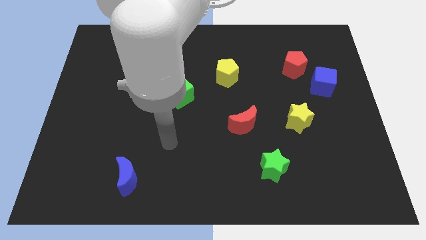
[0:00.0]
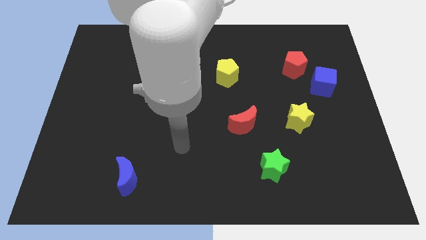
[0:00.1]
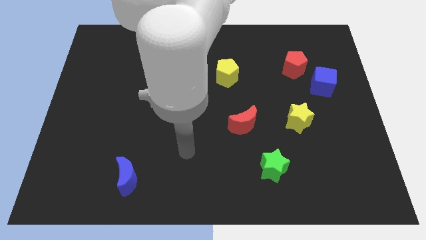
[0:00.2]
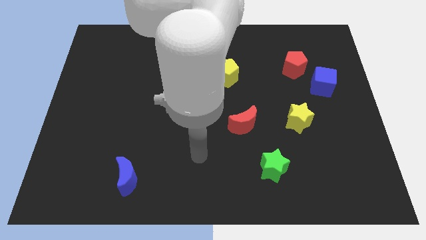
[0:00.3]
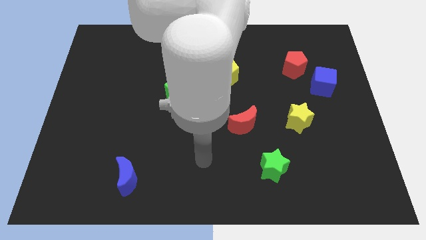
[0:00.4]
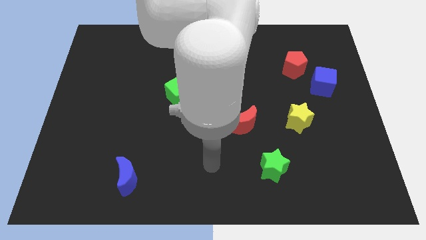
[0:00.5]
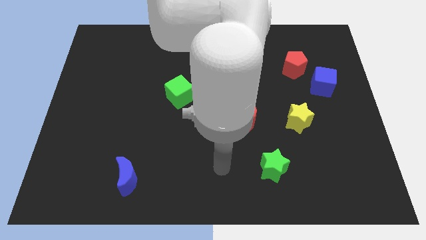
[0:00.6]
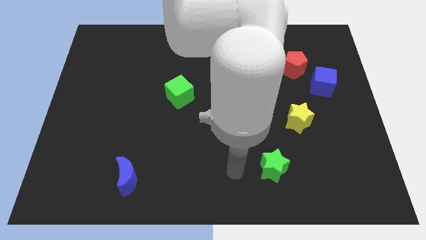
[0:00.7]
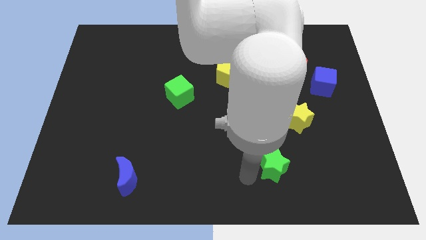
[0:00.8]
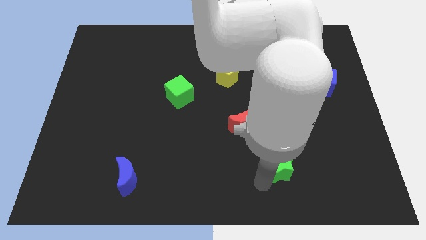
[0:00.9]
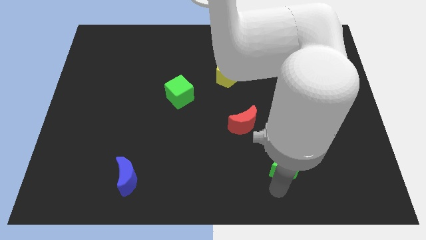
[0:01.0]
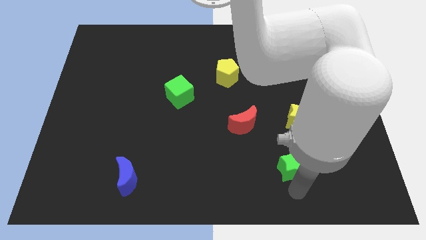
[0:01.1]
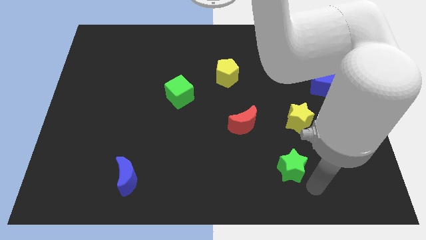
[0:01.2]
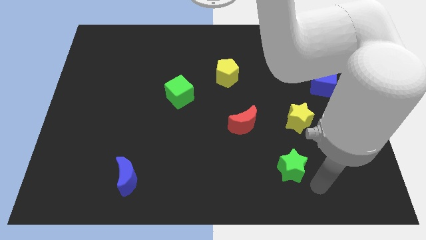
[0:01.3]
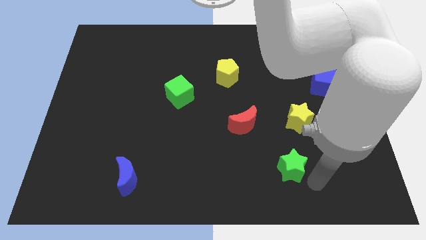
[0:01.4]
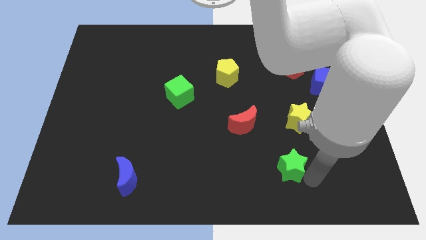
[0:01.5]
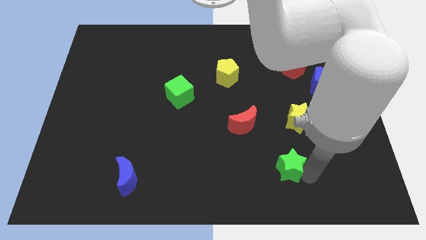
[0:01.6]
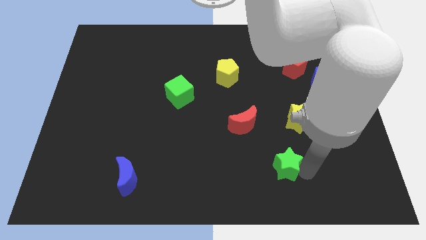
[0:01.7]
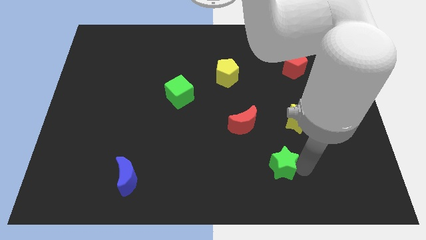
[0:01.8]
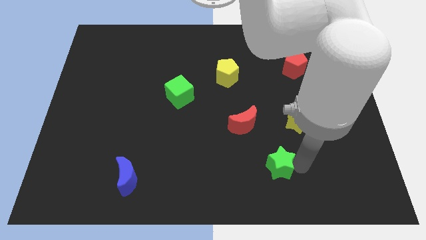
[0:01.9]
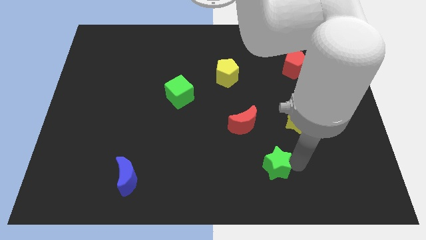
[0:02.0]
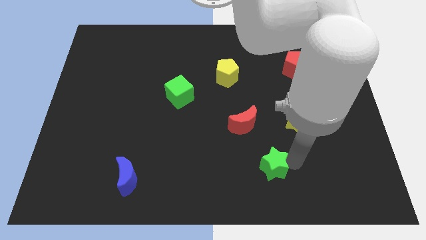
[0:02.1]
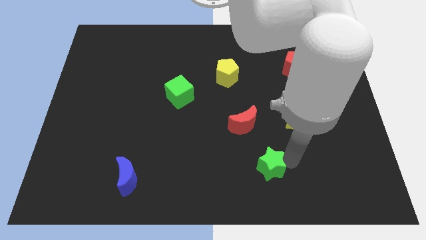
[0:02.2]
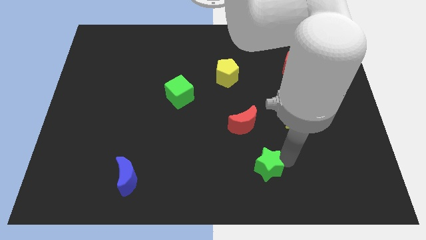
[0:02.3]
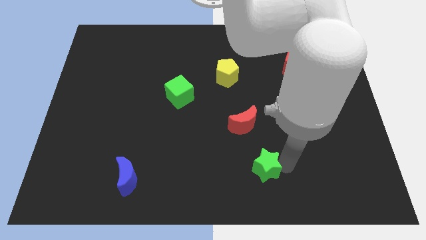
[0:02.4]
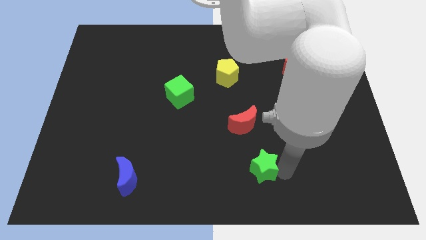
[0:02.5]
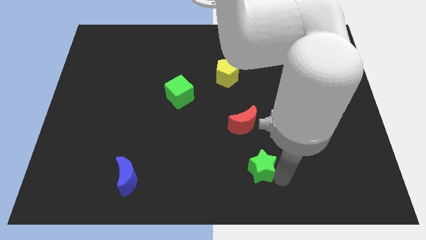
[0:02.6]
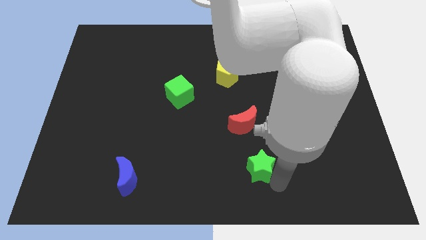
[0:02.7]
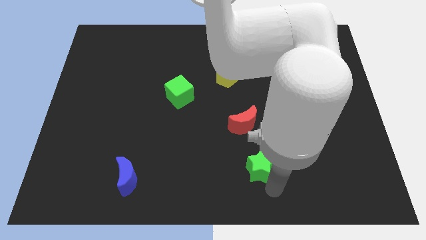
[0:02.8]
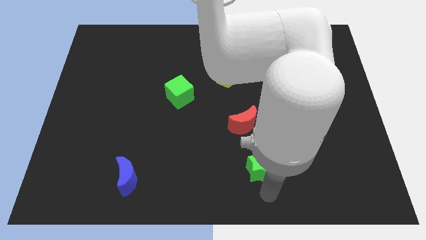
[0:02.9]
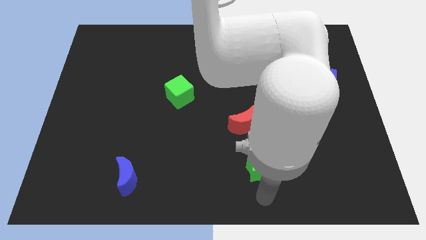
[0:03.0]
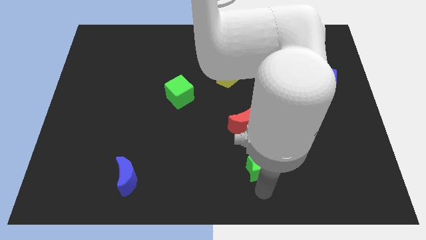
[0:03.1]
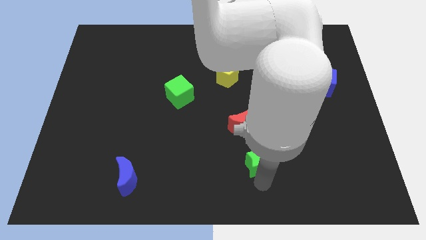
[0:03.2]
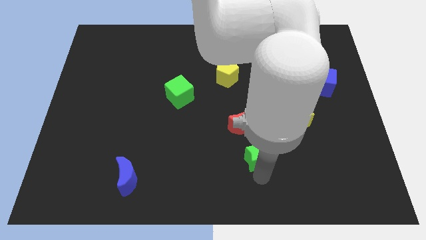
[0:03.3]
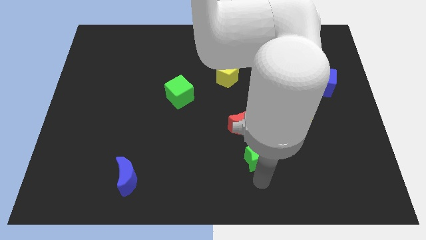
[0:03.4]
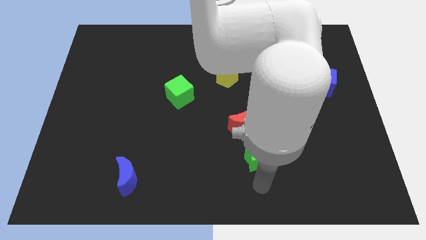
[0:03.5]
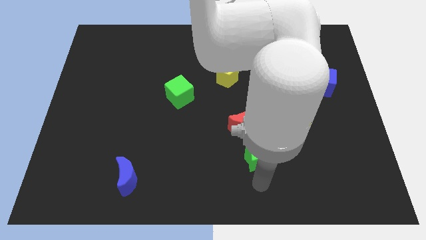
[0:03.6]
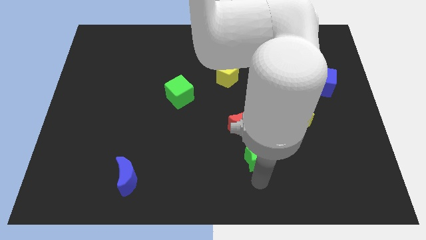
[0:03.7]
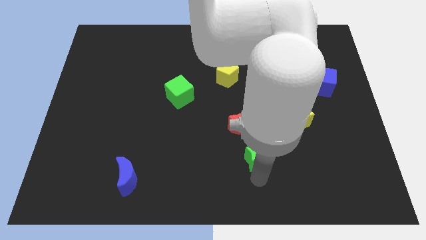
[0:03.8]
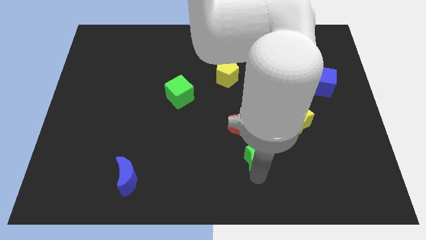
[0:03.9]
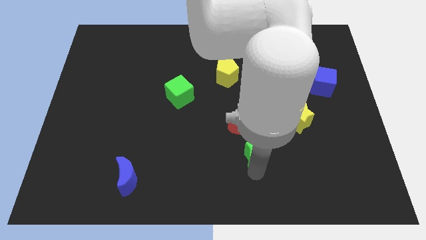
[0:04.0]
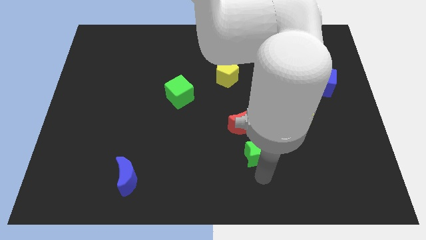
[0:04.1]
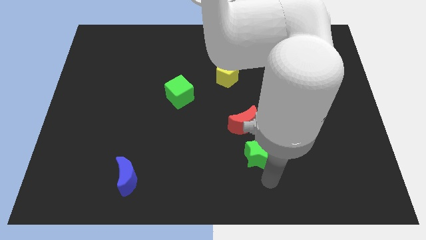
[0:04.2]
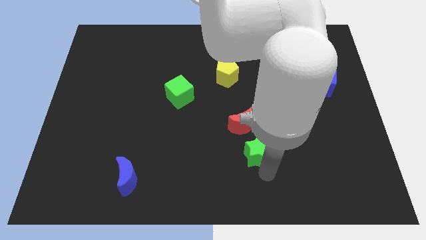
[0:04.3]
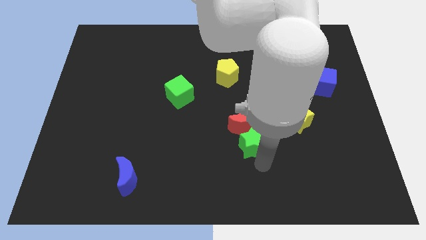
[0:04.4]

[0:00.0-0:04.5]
put the green star next to the red moon

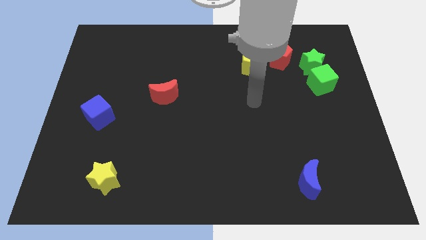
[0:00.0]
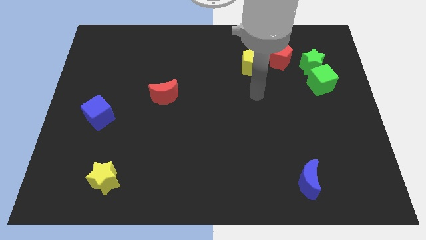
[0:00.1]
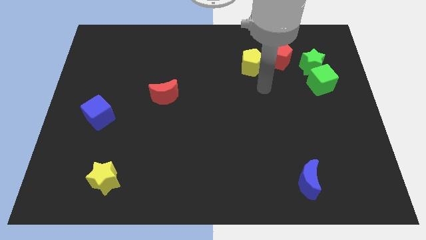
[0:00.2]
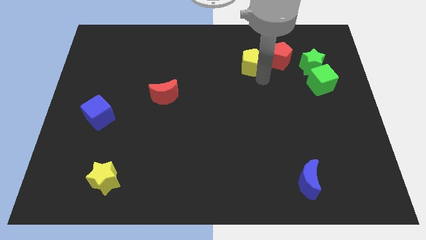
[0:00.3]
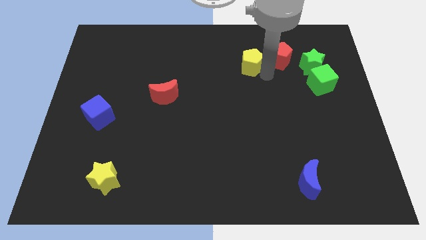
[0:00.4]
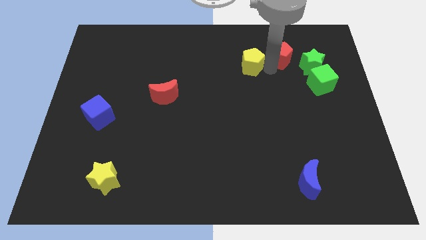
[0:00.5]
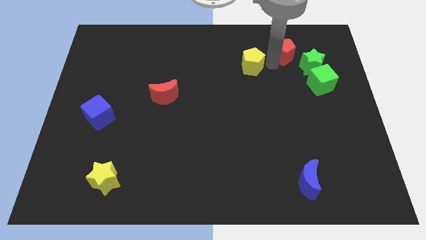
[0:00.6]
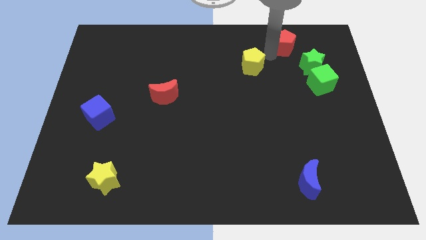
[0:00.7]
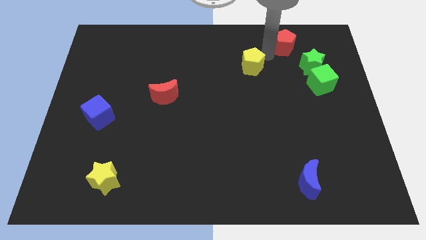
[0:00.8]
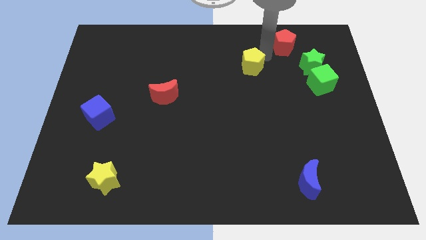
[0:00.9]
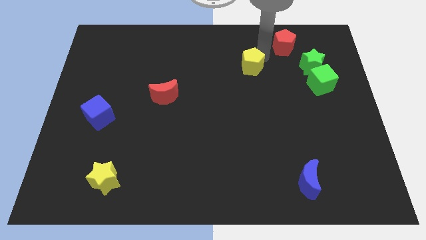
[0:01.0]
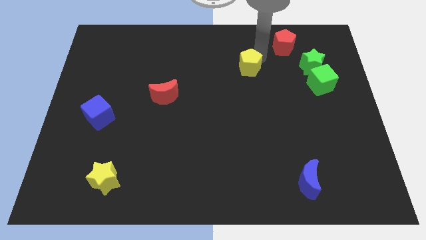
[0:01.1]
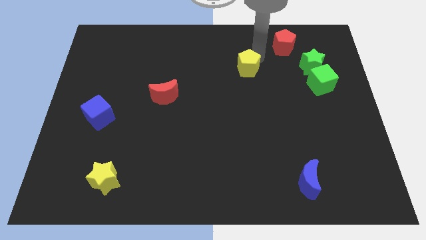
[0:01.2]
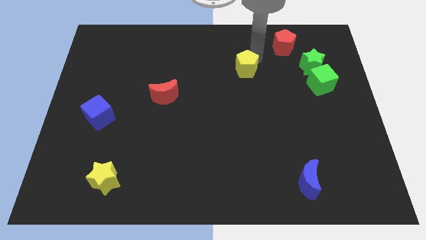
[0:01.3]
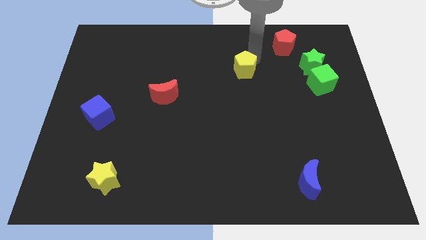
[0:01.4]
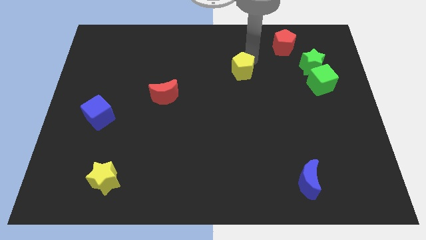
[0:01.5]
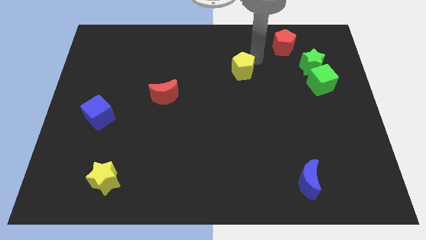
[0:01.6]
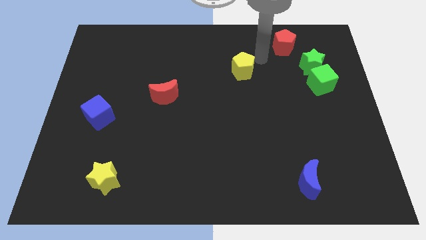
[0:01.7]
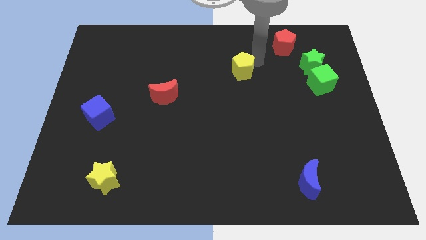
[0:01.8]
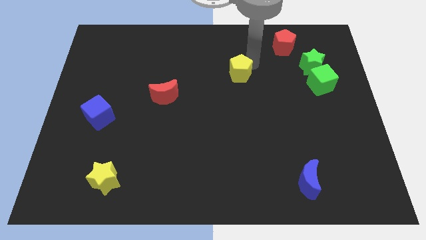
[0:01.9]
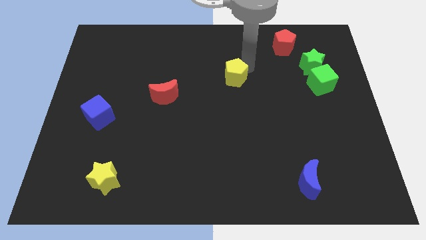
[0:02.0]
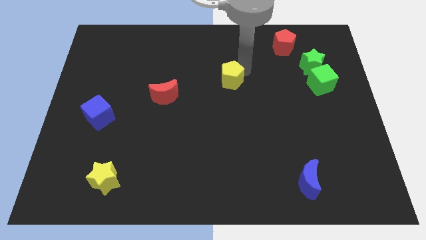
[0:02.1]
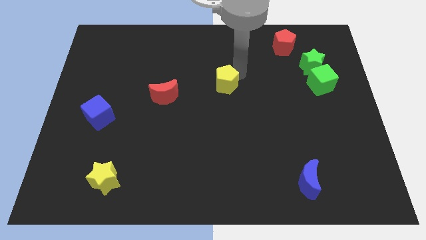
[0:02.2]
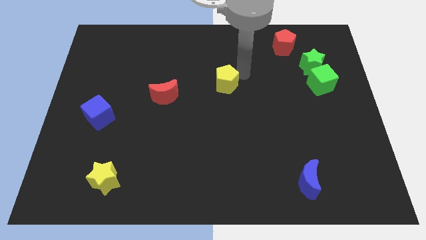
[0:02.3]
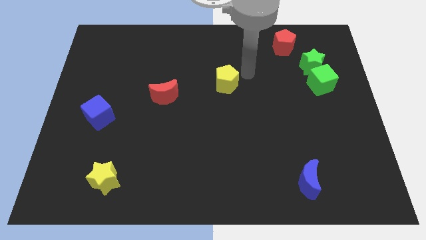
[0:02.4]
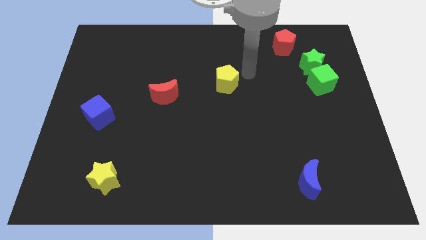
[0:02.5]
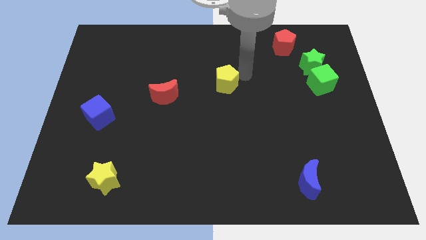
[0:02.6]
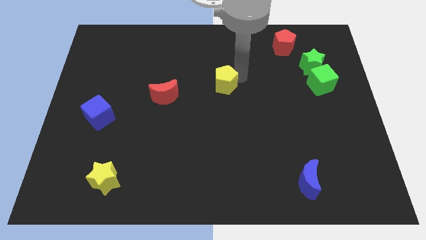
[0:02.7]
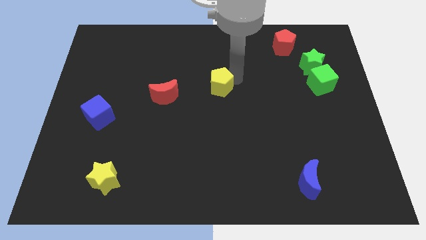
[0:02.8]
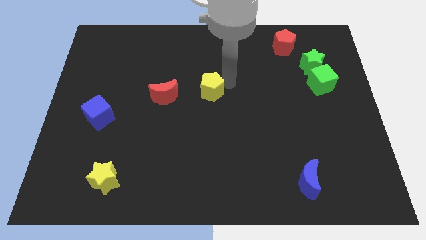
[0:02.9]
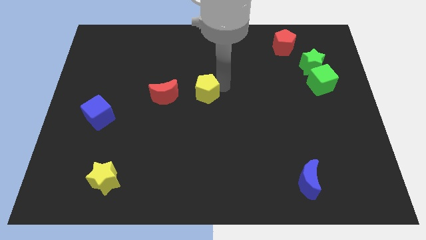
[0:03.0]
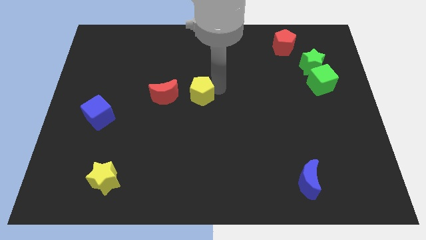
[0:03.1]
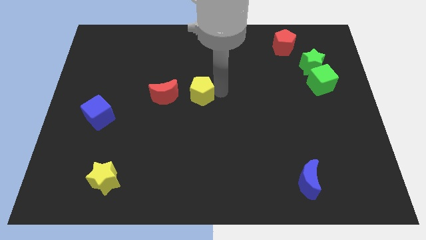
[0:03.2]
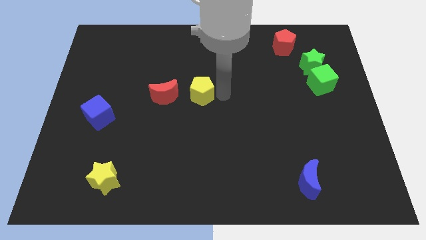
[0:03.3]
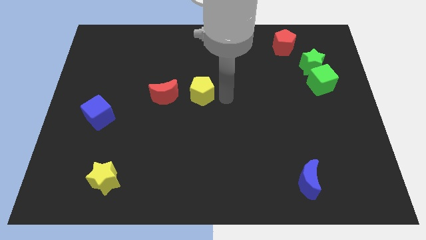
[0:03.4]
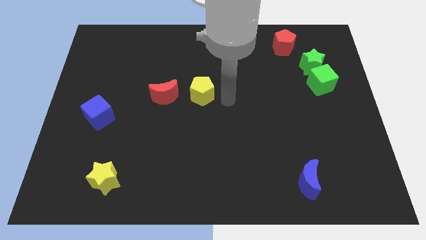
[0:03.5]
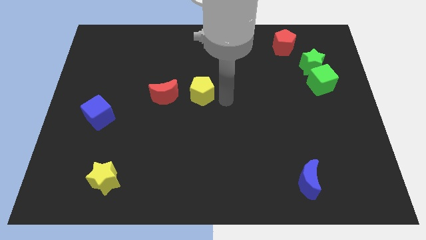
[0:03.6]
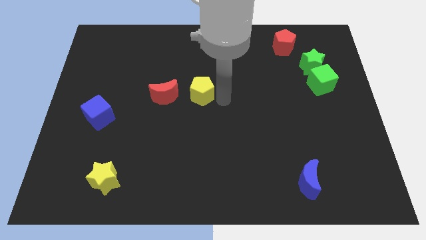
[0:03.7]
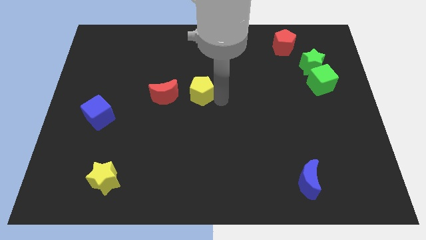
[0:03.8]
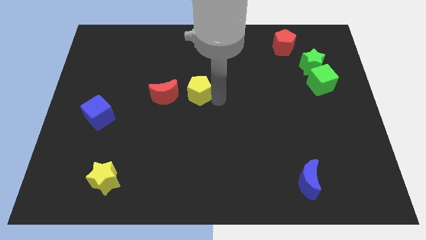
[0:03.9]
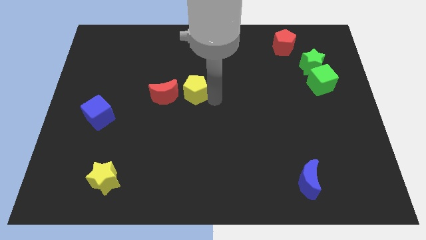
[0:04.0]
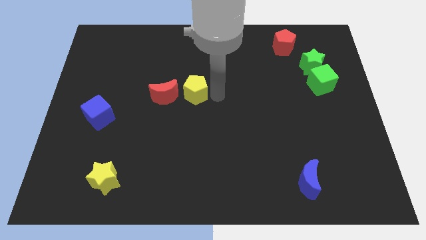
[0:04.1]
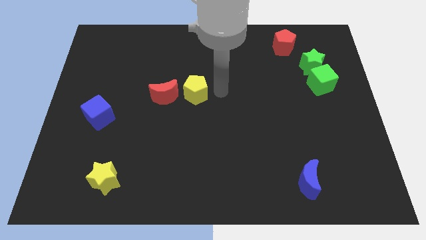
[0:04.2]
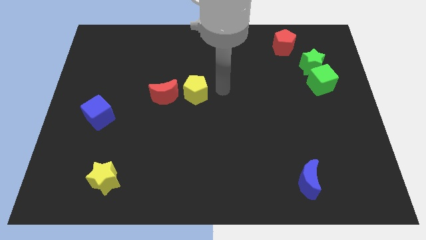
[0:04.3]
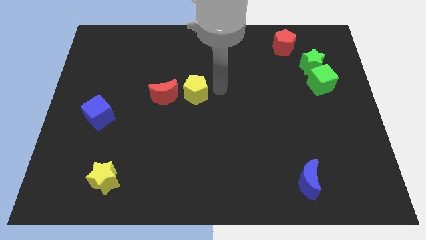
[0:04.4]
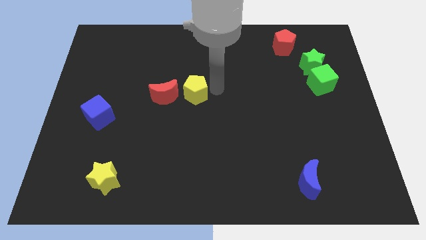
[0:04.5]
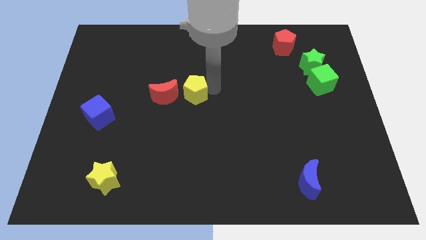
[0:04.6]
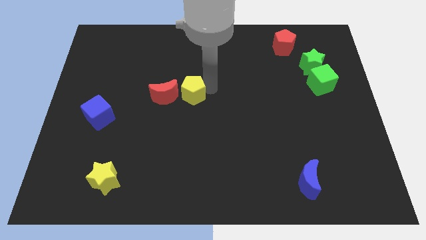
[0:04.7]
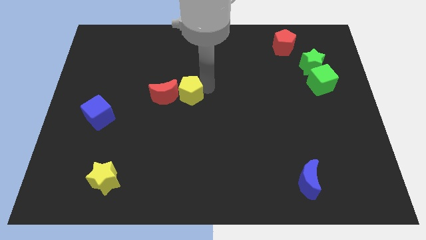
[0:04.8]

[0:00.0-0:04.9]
put the yellow pentagon next to the red moon
